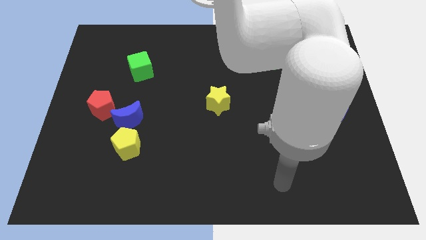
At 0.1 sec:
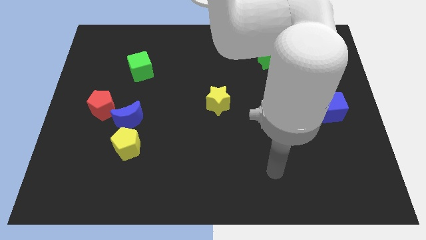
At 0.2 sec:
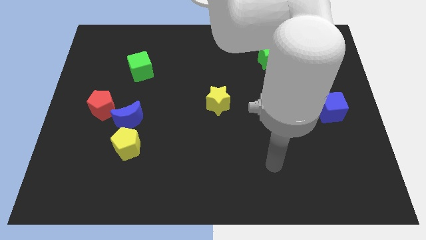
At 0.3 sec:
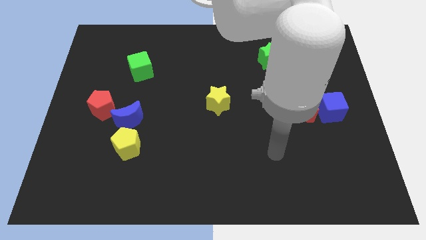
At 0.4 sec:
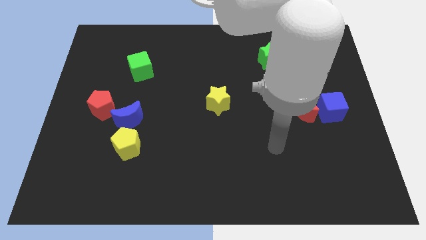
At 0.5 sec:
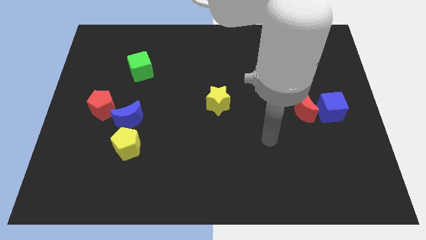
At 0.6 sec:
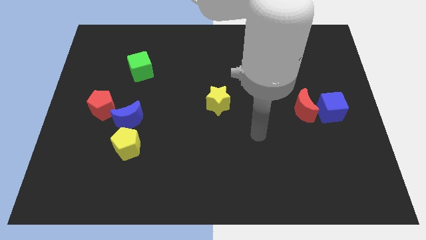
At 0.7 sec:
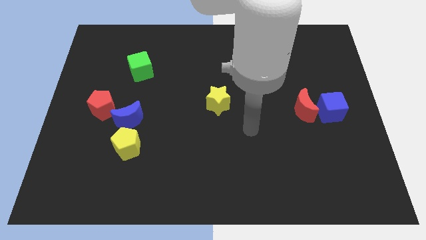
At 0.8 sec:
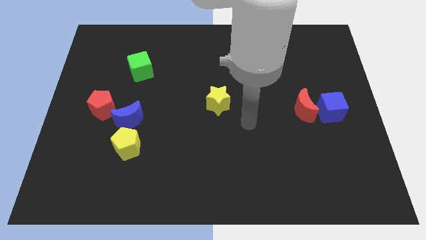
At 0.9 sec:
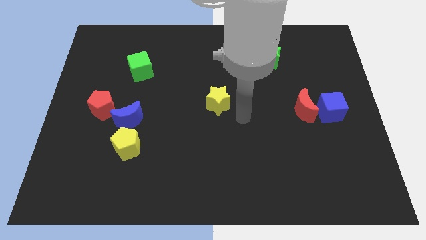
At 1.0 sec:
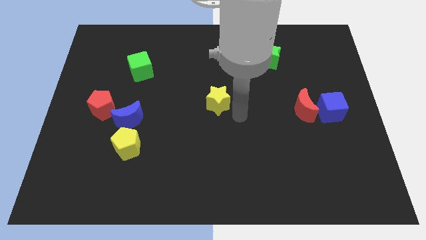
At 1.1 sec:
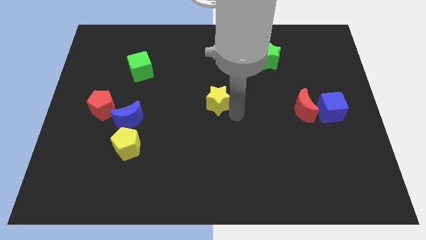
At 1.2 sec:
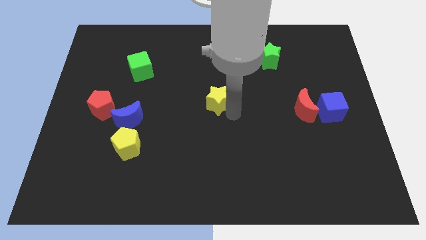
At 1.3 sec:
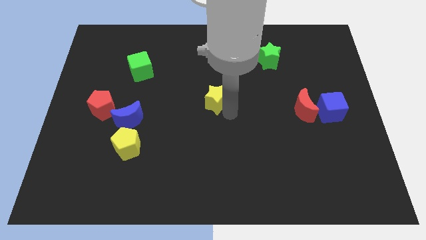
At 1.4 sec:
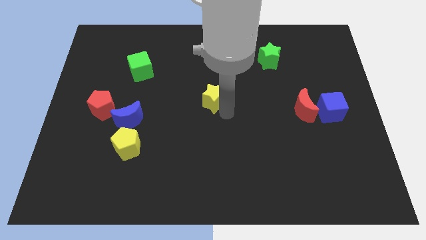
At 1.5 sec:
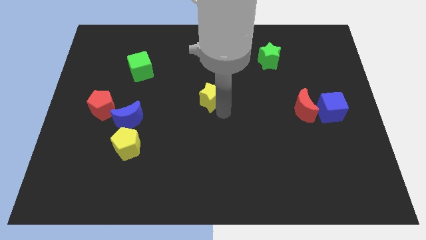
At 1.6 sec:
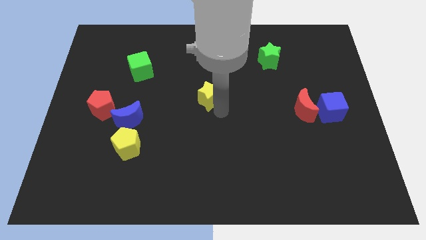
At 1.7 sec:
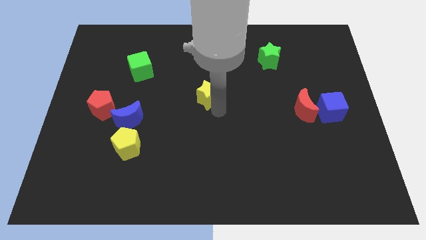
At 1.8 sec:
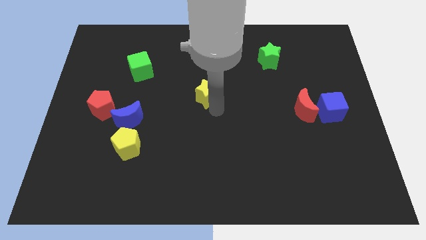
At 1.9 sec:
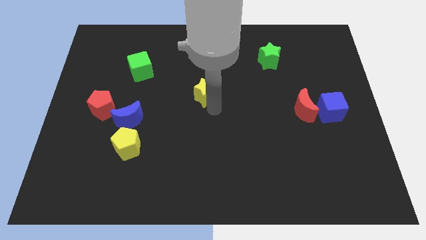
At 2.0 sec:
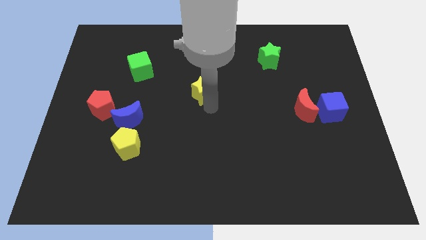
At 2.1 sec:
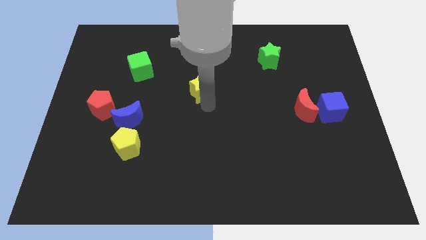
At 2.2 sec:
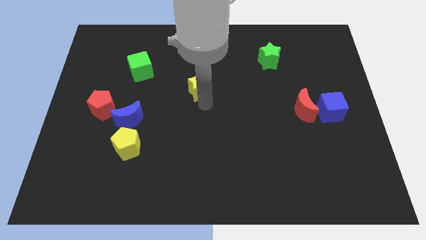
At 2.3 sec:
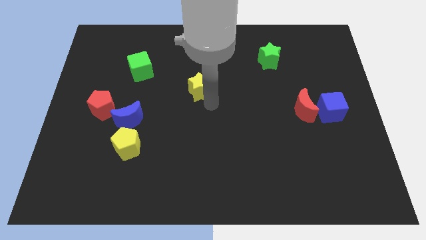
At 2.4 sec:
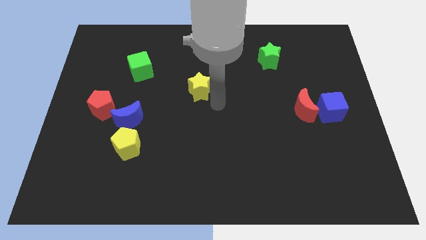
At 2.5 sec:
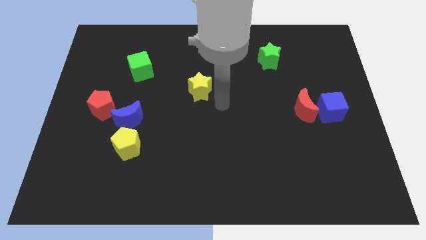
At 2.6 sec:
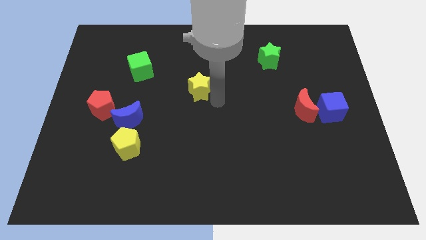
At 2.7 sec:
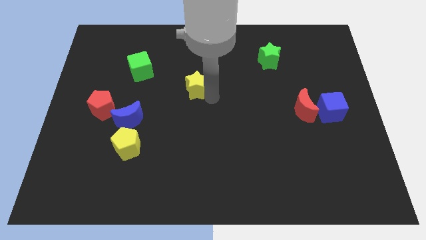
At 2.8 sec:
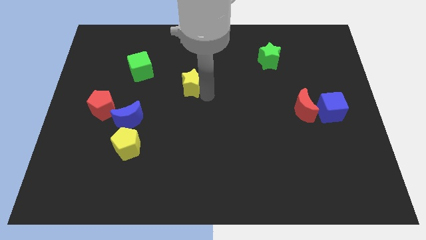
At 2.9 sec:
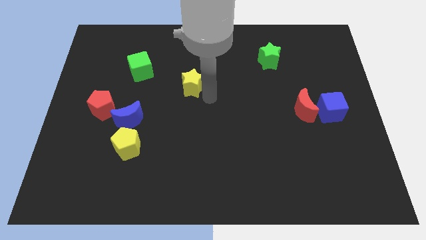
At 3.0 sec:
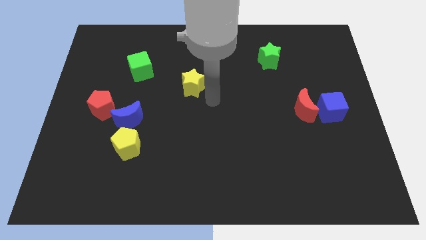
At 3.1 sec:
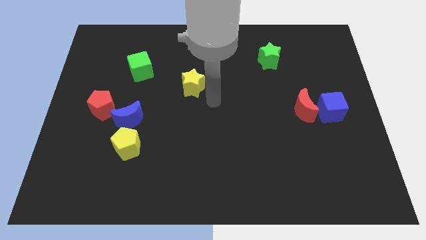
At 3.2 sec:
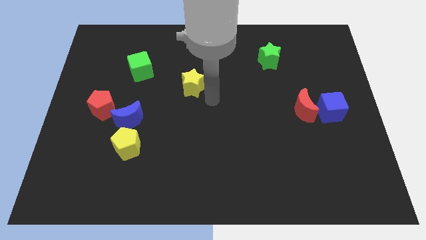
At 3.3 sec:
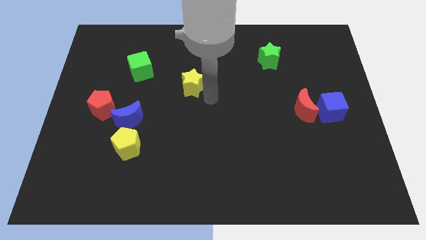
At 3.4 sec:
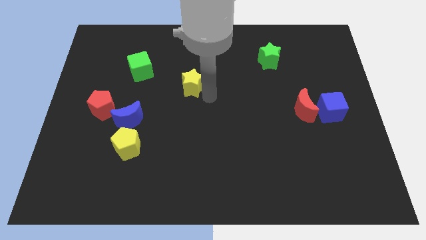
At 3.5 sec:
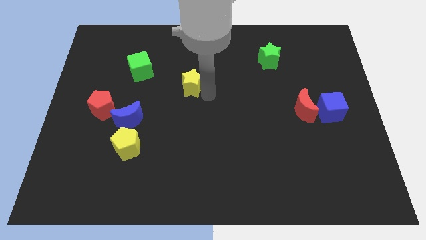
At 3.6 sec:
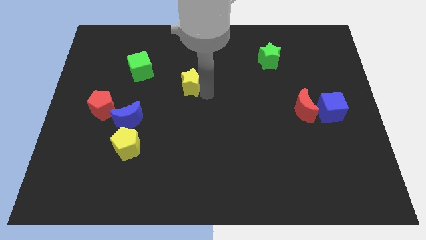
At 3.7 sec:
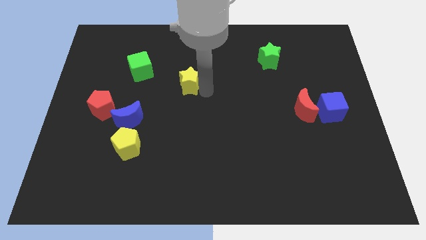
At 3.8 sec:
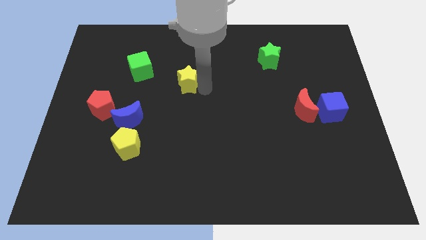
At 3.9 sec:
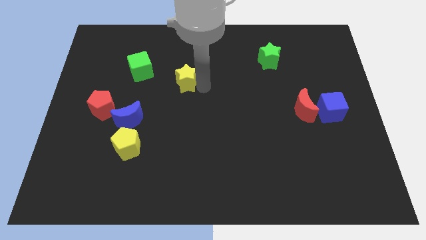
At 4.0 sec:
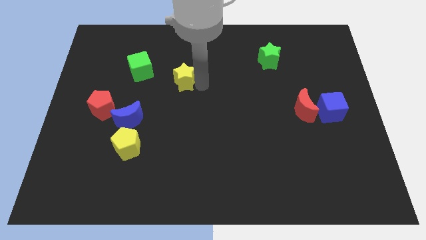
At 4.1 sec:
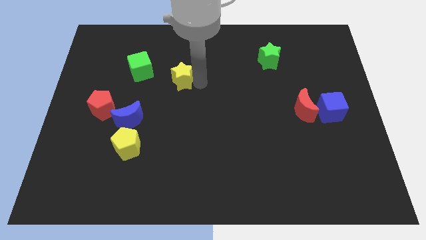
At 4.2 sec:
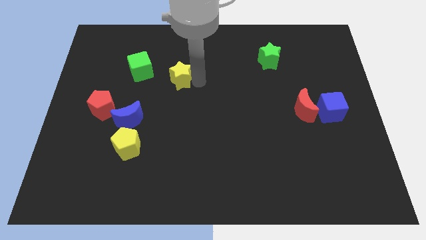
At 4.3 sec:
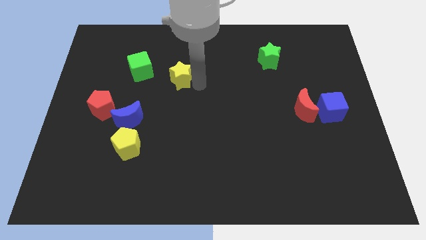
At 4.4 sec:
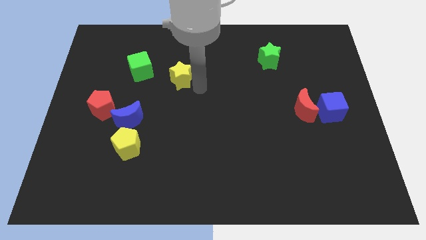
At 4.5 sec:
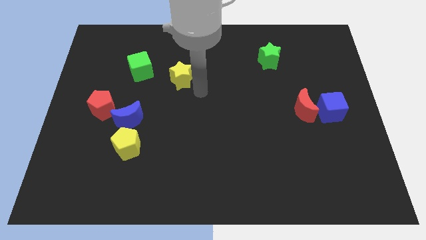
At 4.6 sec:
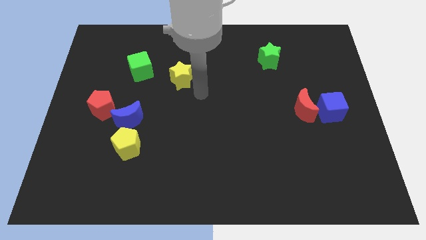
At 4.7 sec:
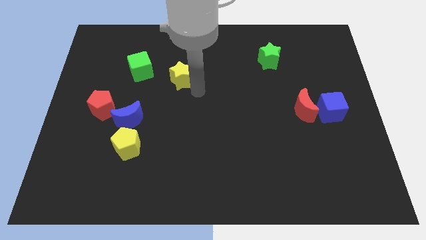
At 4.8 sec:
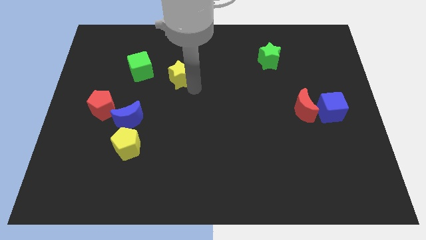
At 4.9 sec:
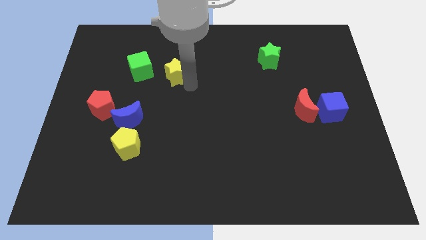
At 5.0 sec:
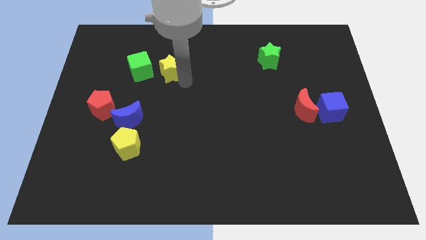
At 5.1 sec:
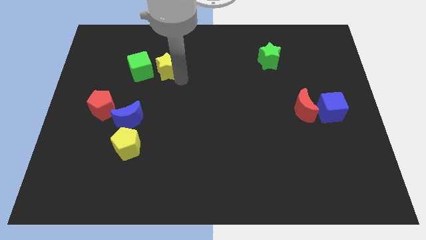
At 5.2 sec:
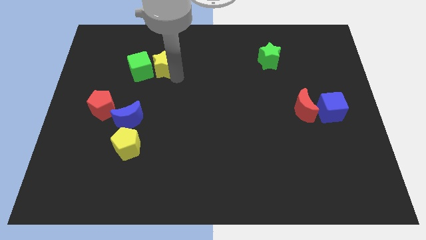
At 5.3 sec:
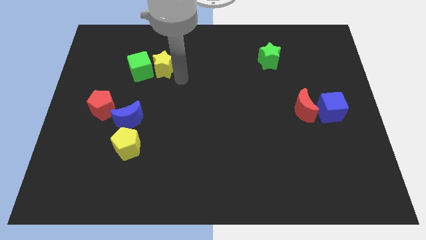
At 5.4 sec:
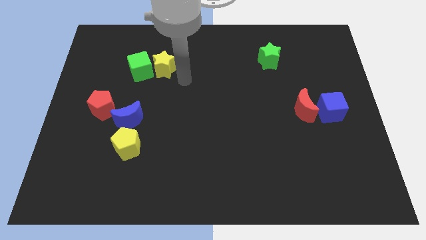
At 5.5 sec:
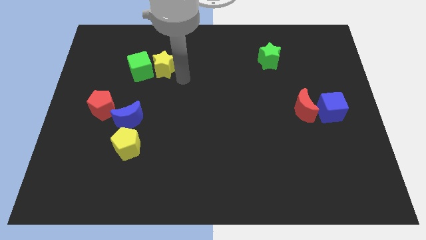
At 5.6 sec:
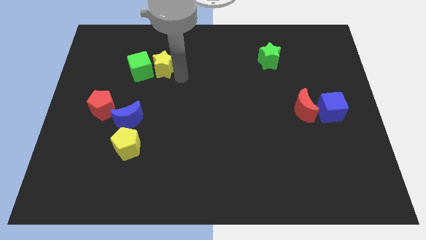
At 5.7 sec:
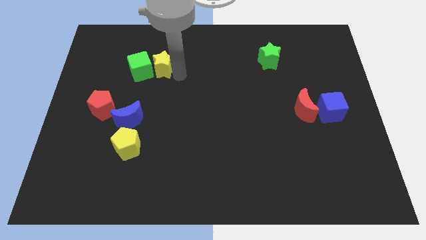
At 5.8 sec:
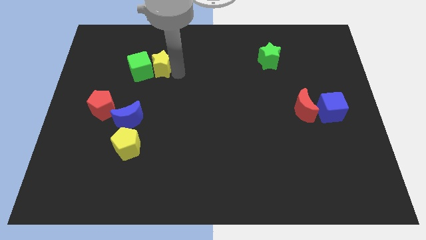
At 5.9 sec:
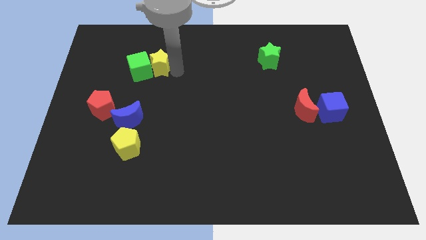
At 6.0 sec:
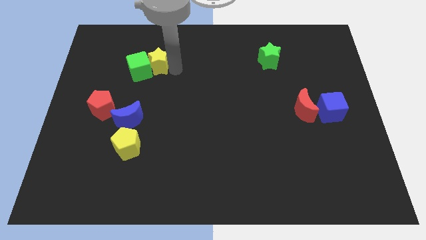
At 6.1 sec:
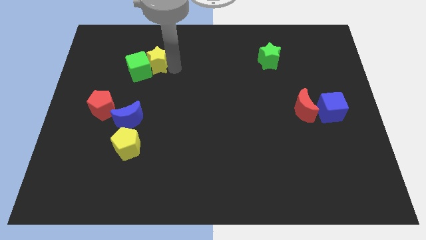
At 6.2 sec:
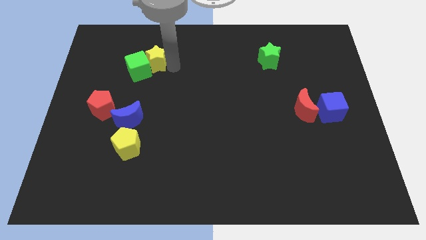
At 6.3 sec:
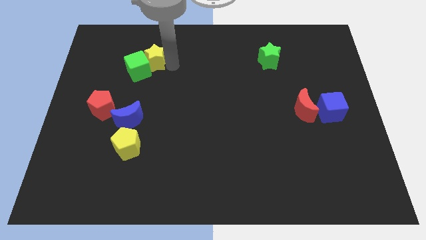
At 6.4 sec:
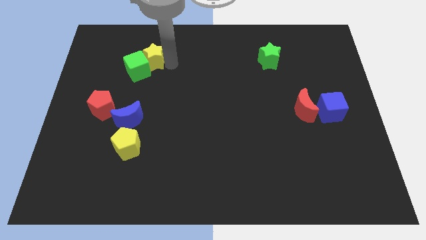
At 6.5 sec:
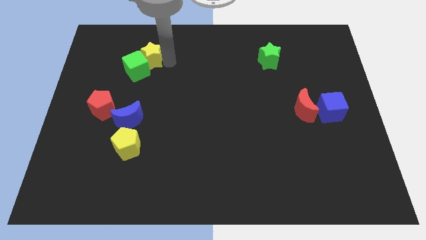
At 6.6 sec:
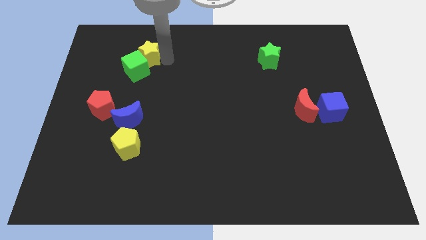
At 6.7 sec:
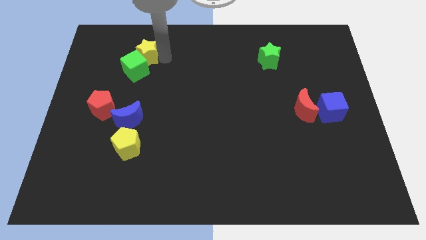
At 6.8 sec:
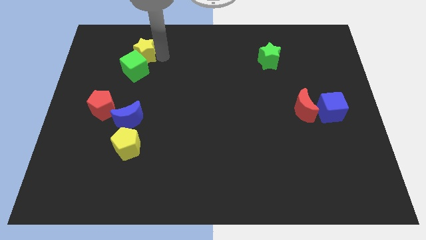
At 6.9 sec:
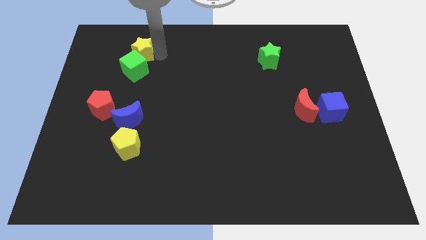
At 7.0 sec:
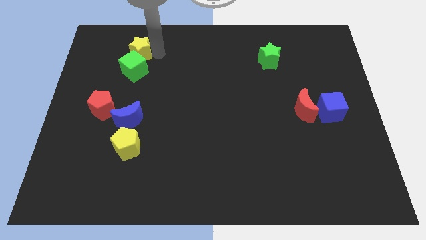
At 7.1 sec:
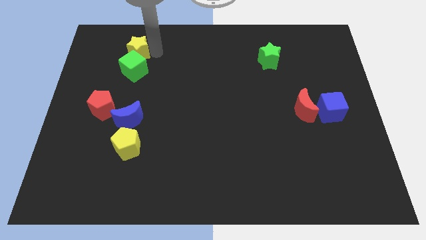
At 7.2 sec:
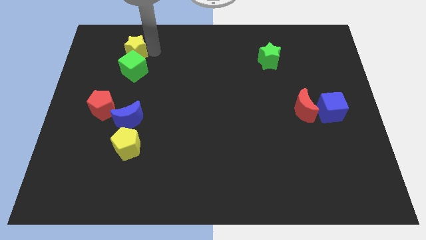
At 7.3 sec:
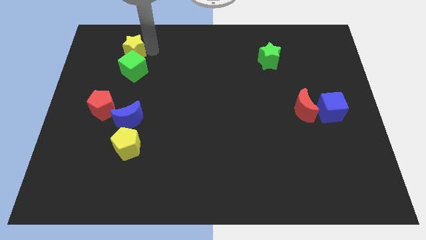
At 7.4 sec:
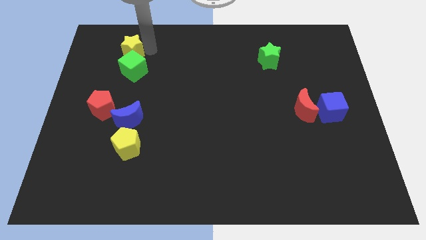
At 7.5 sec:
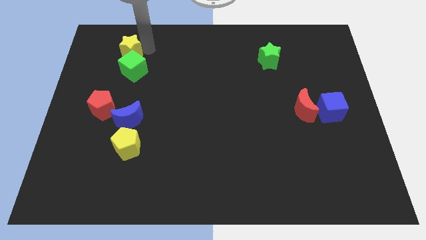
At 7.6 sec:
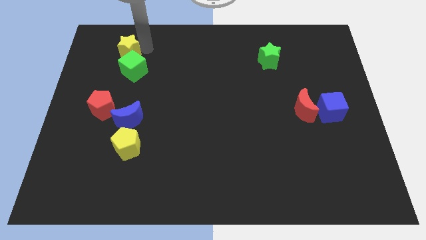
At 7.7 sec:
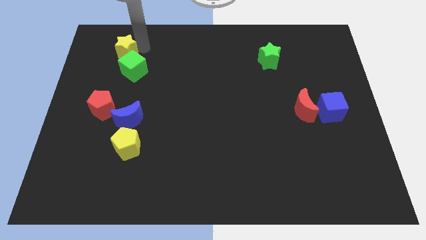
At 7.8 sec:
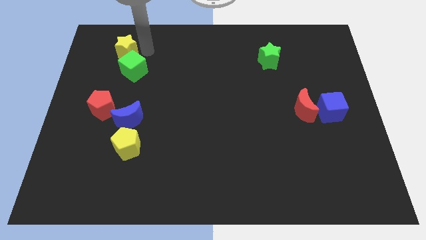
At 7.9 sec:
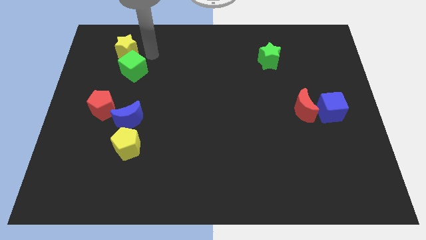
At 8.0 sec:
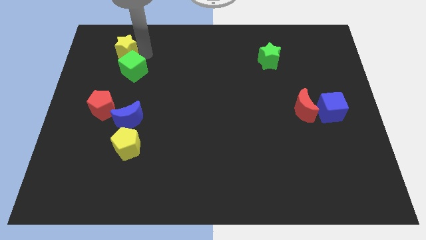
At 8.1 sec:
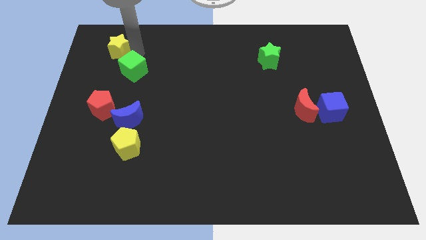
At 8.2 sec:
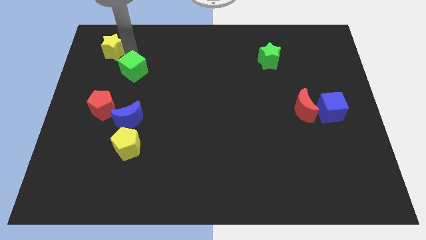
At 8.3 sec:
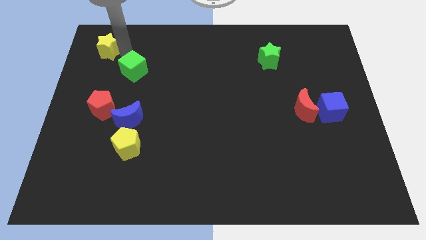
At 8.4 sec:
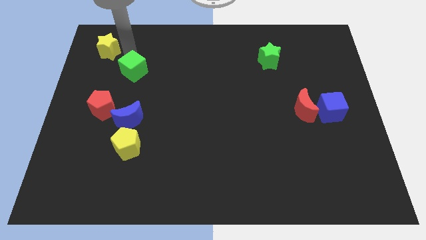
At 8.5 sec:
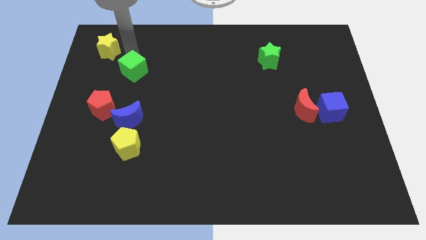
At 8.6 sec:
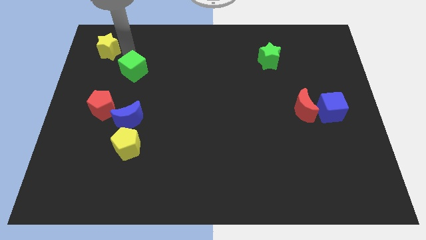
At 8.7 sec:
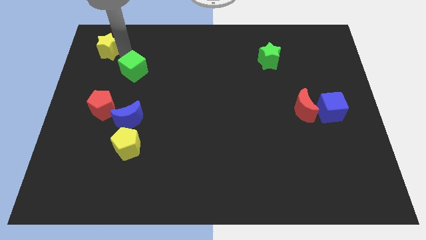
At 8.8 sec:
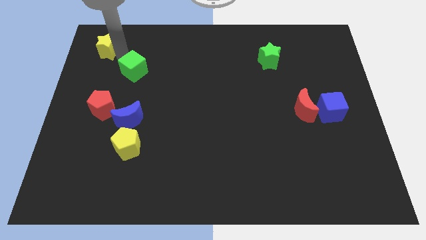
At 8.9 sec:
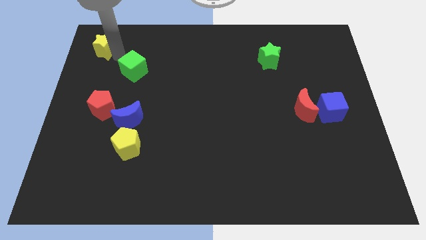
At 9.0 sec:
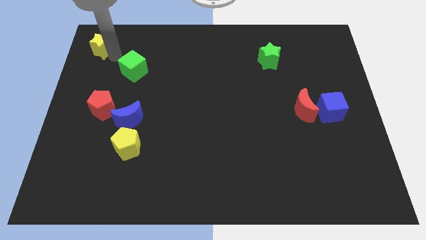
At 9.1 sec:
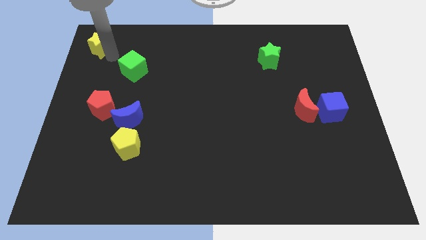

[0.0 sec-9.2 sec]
push the yellow star to the top left
